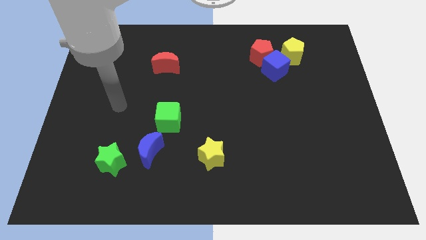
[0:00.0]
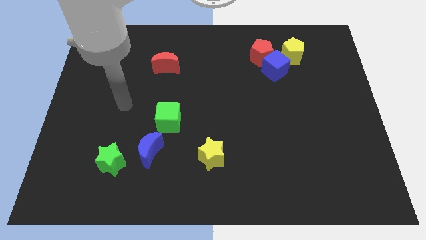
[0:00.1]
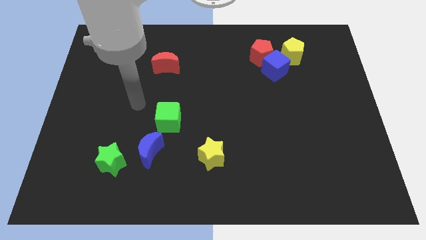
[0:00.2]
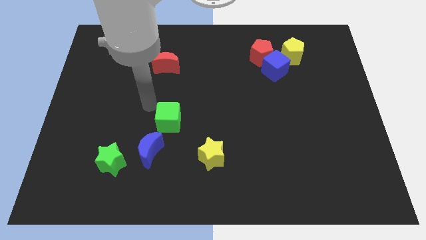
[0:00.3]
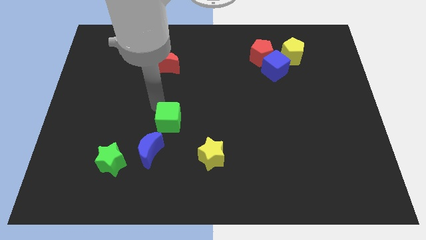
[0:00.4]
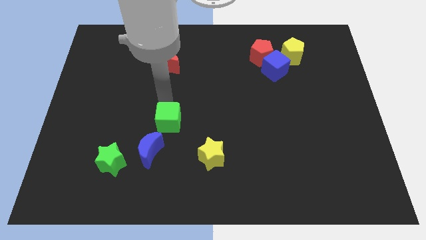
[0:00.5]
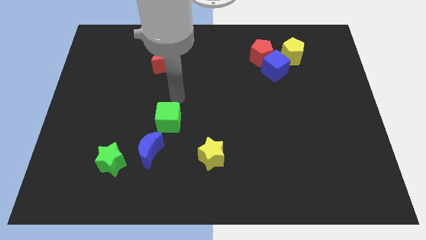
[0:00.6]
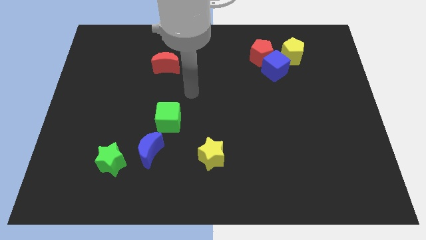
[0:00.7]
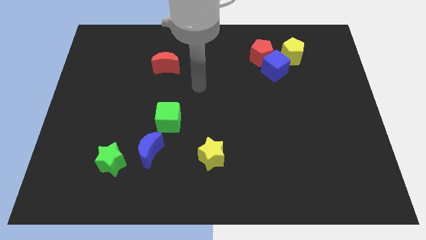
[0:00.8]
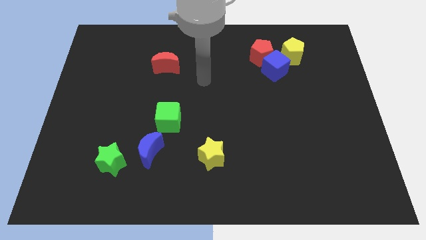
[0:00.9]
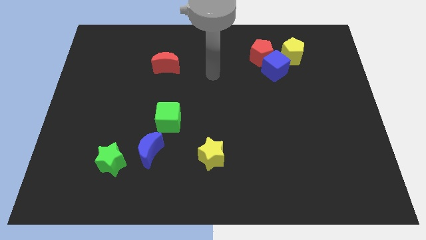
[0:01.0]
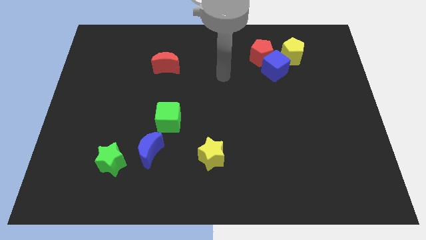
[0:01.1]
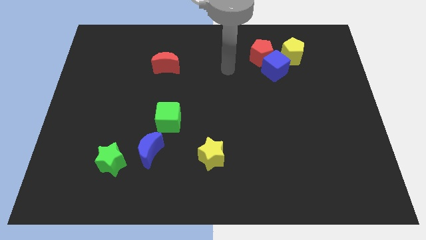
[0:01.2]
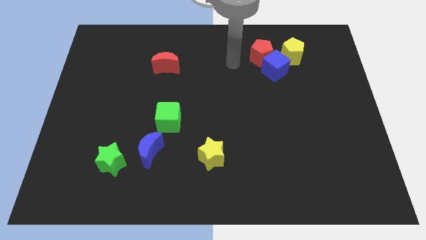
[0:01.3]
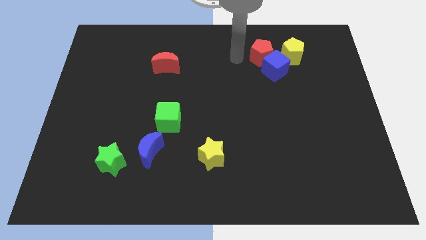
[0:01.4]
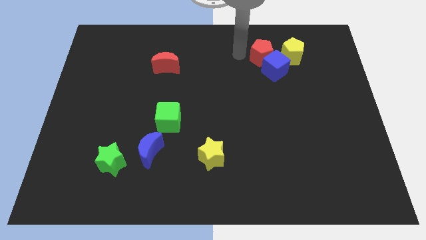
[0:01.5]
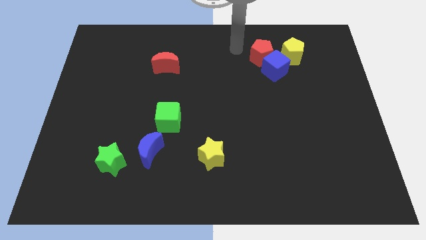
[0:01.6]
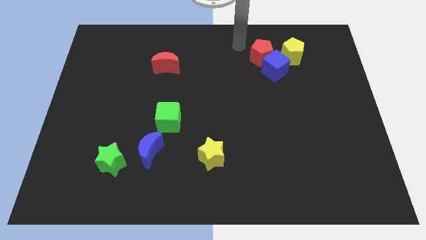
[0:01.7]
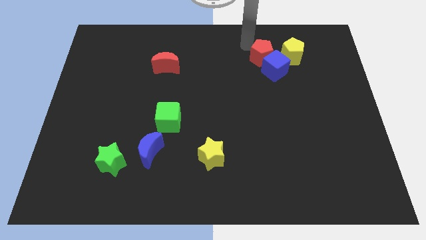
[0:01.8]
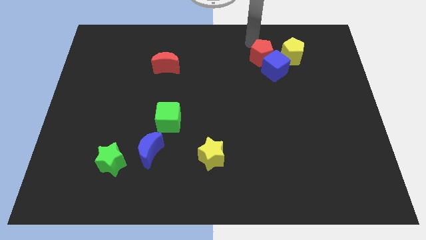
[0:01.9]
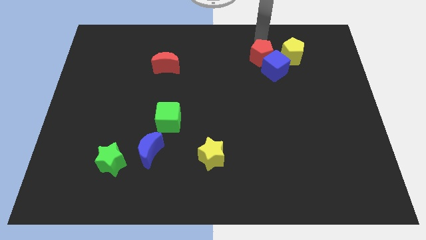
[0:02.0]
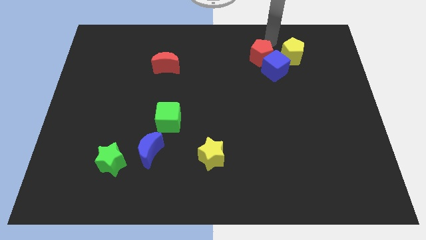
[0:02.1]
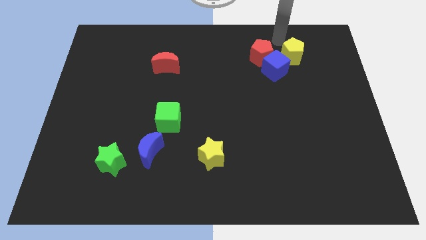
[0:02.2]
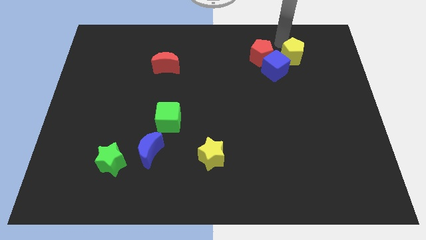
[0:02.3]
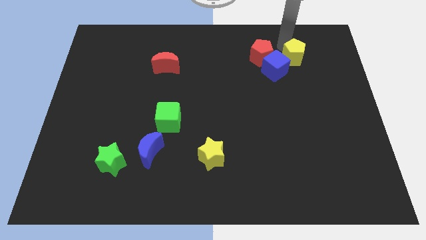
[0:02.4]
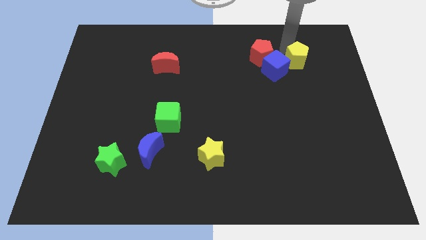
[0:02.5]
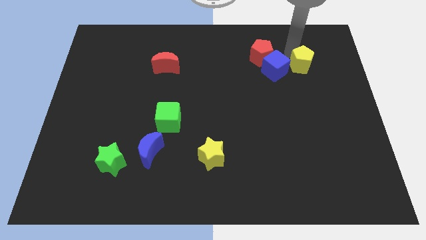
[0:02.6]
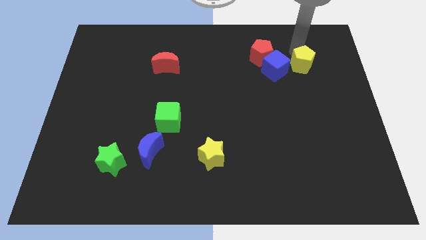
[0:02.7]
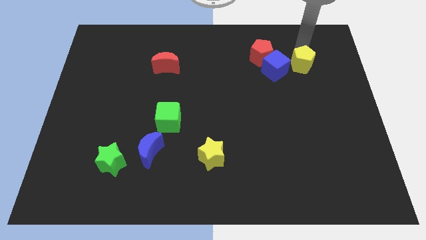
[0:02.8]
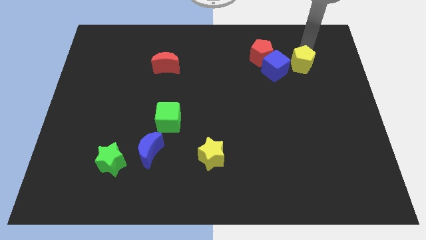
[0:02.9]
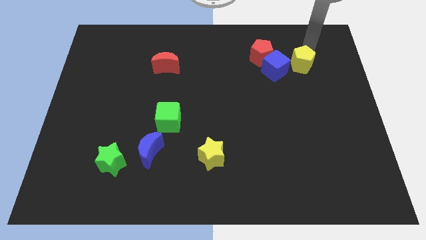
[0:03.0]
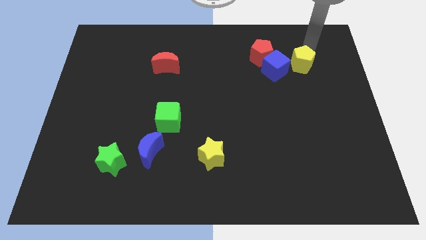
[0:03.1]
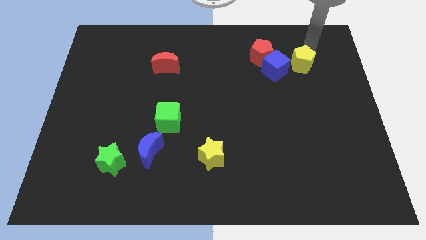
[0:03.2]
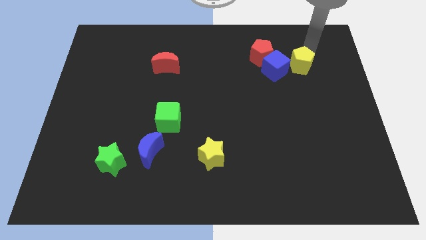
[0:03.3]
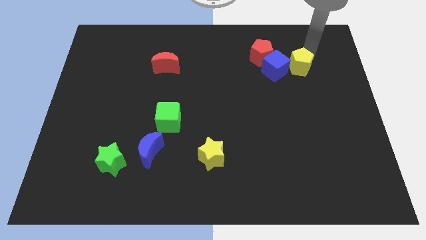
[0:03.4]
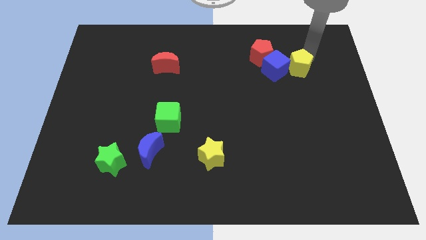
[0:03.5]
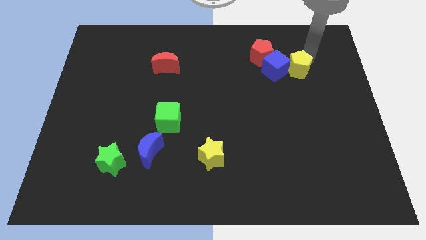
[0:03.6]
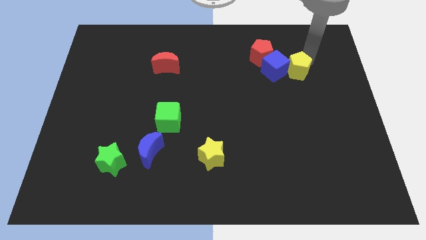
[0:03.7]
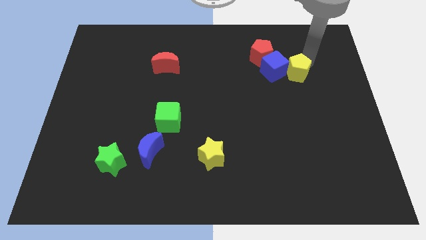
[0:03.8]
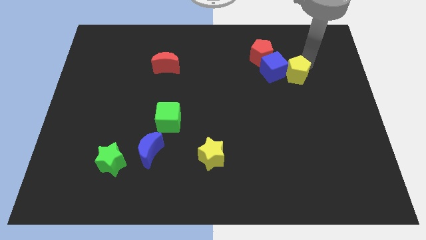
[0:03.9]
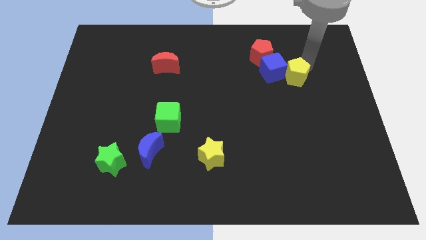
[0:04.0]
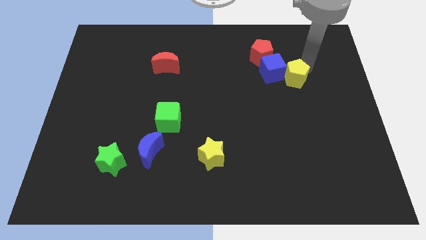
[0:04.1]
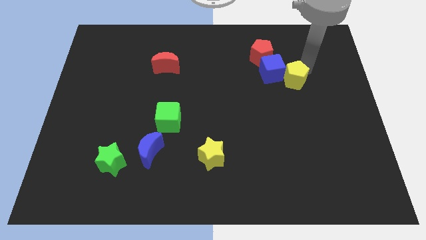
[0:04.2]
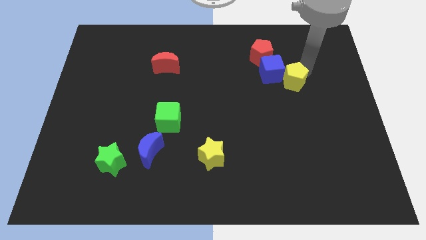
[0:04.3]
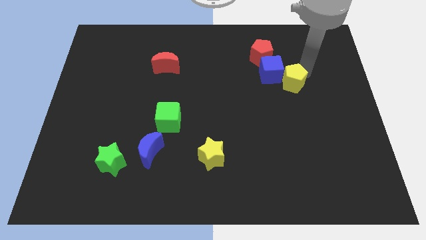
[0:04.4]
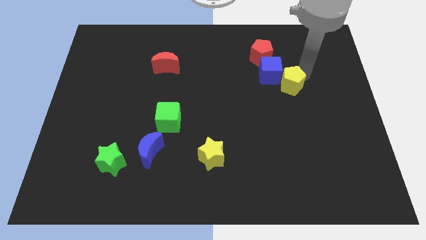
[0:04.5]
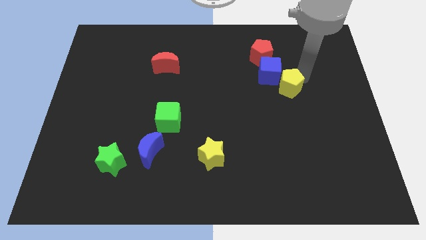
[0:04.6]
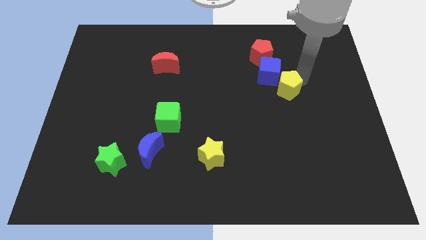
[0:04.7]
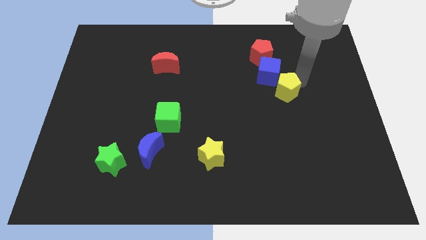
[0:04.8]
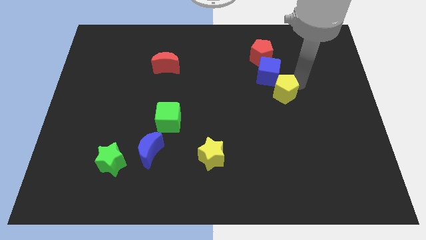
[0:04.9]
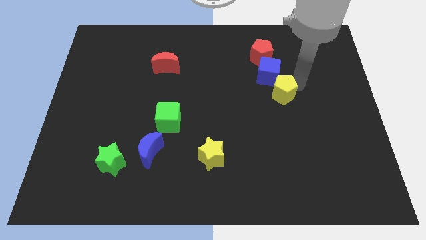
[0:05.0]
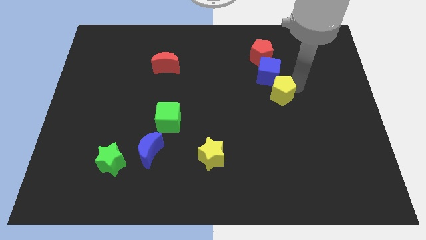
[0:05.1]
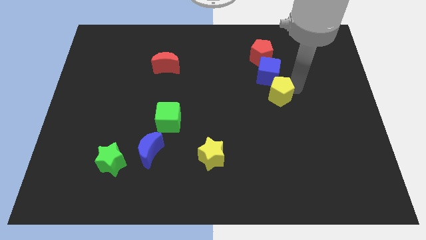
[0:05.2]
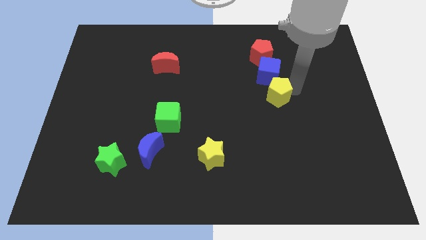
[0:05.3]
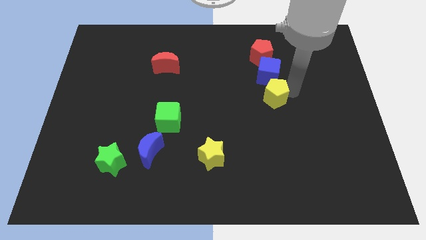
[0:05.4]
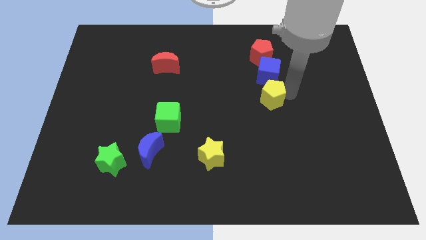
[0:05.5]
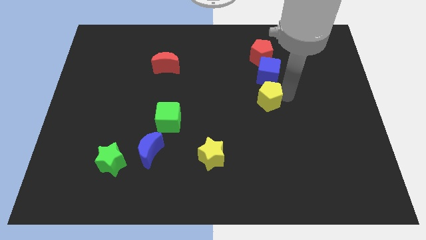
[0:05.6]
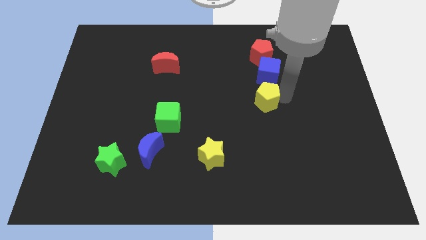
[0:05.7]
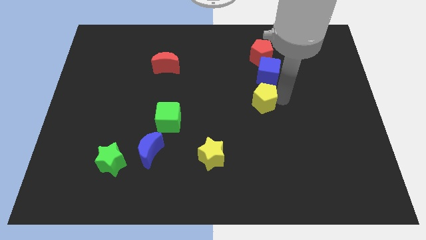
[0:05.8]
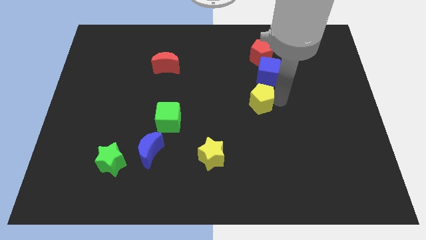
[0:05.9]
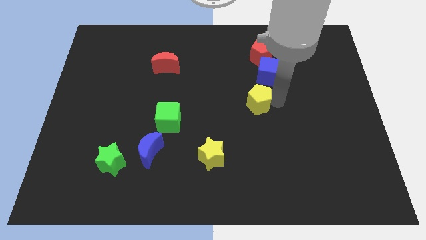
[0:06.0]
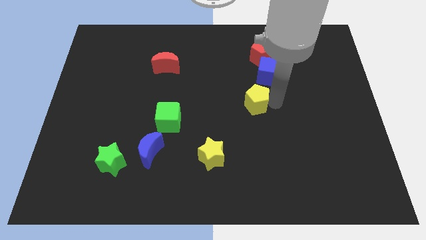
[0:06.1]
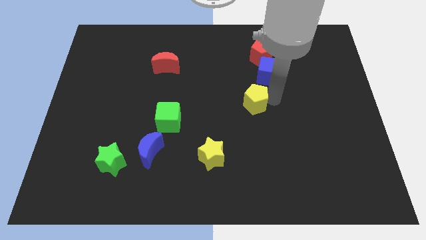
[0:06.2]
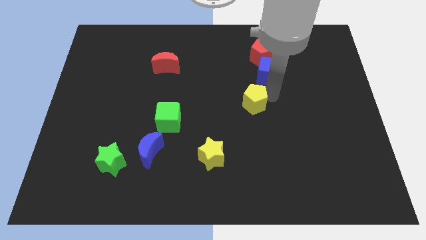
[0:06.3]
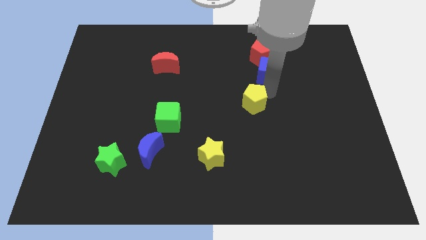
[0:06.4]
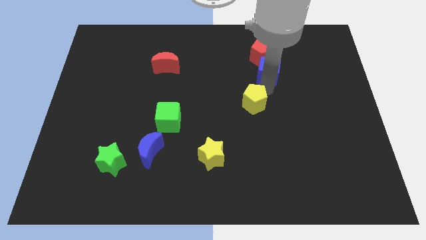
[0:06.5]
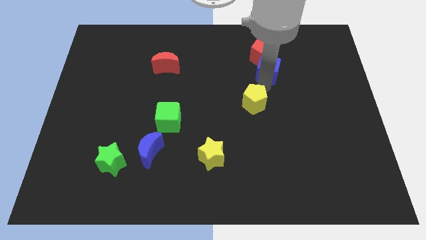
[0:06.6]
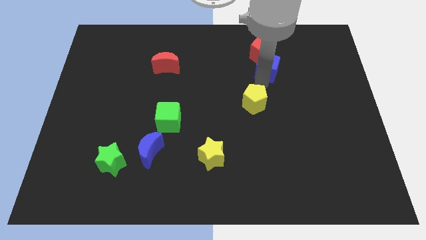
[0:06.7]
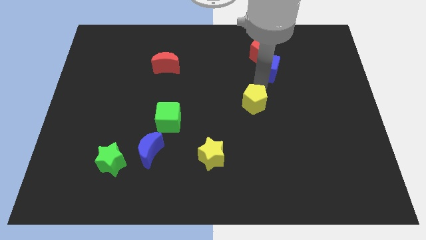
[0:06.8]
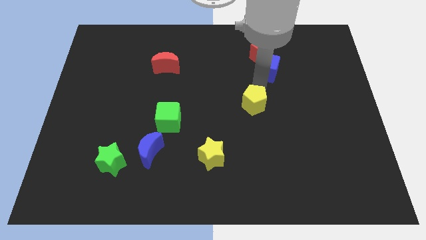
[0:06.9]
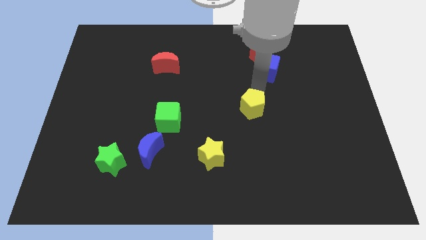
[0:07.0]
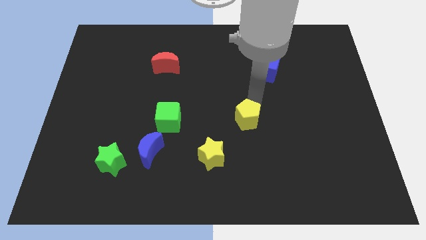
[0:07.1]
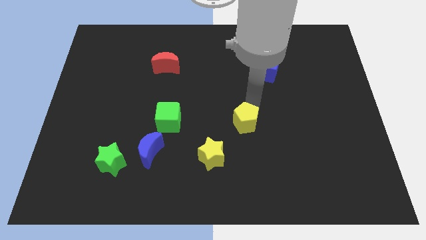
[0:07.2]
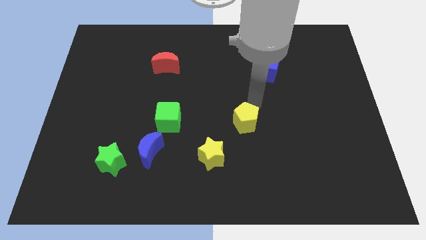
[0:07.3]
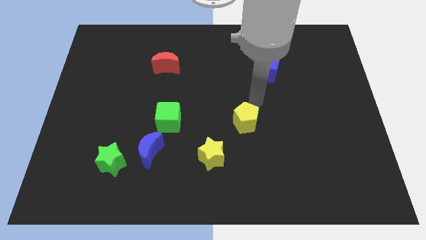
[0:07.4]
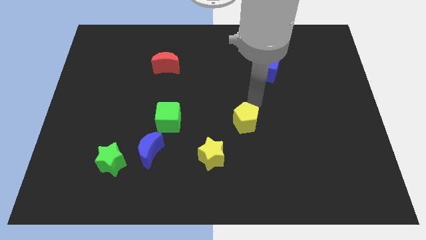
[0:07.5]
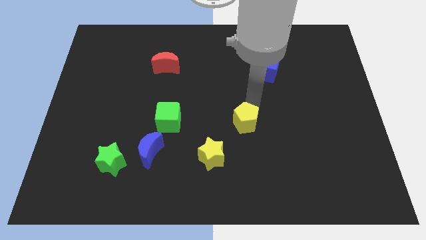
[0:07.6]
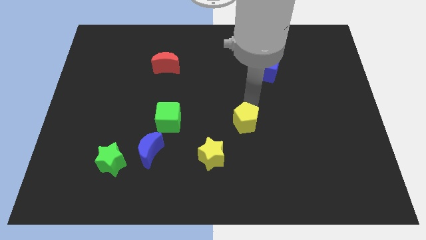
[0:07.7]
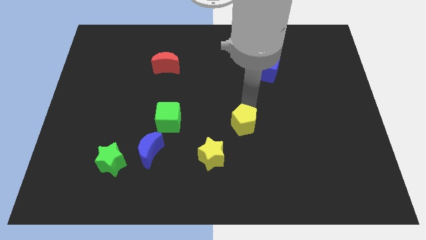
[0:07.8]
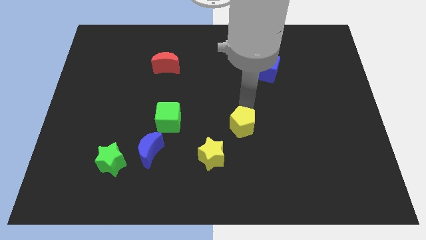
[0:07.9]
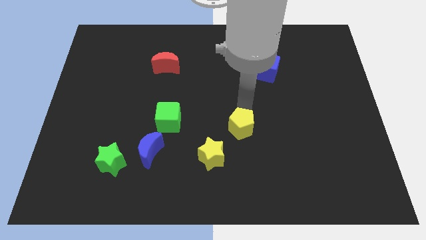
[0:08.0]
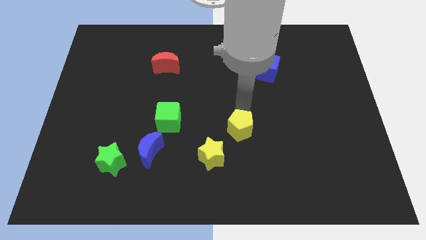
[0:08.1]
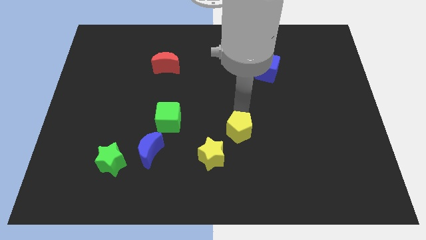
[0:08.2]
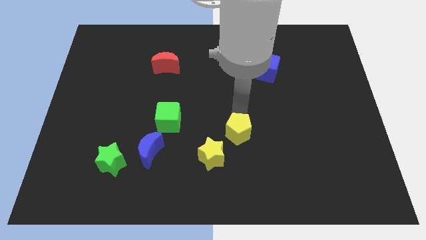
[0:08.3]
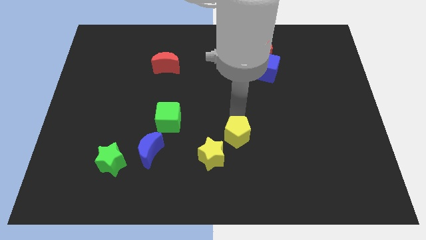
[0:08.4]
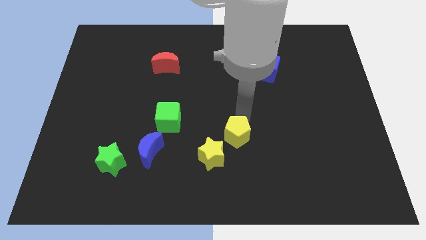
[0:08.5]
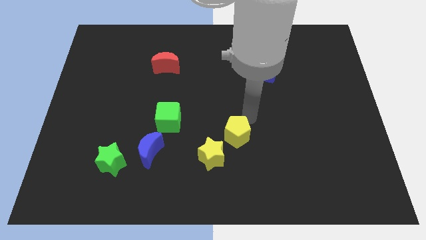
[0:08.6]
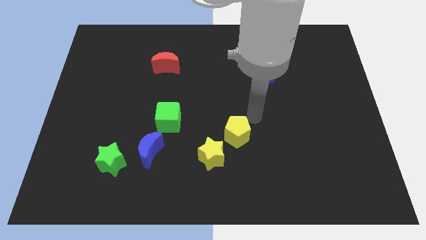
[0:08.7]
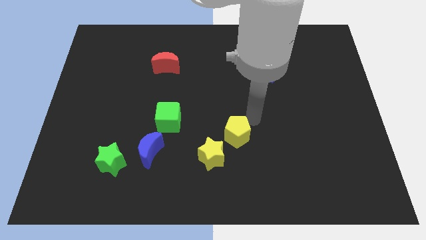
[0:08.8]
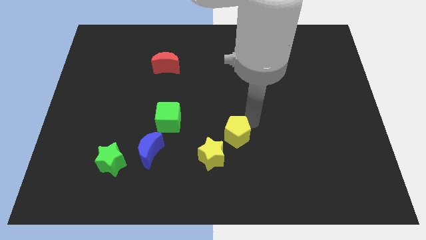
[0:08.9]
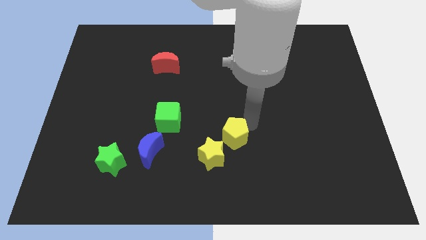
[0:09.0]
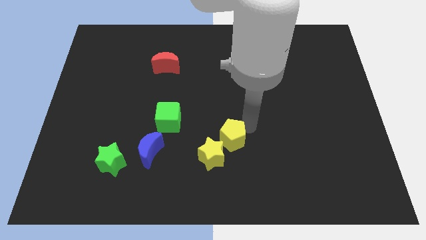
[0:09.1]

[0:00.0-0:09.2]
move the yellow pentagon close to the yellow star
